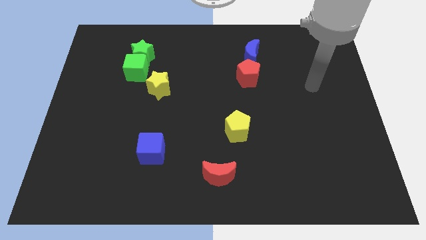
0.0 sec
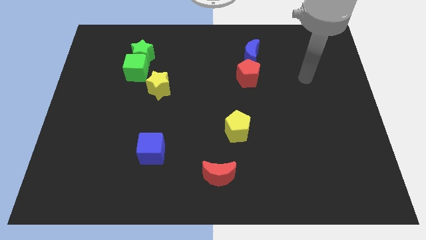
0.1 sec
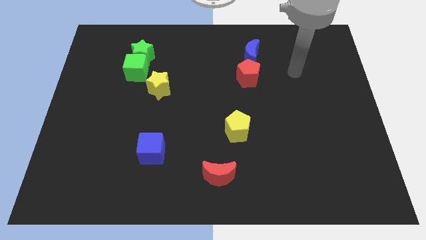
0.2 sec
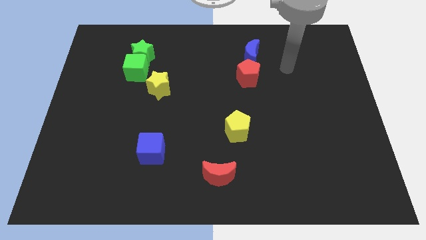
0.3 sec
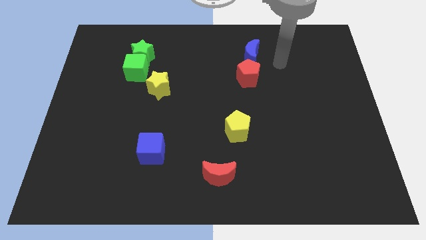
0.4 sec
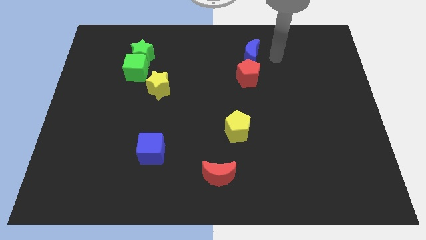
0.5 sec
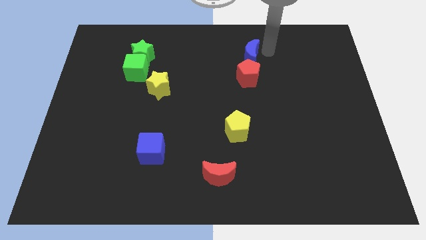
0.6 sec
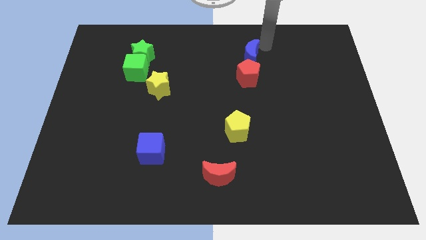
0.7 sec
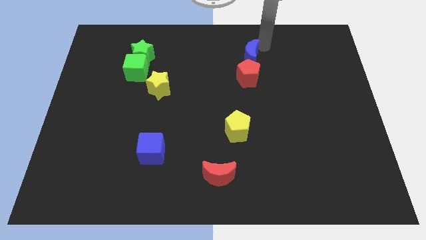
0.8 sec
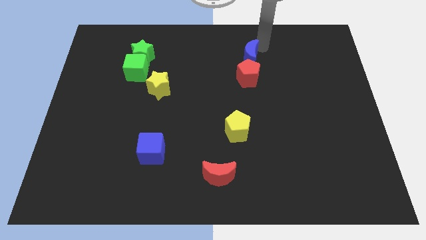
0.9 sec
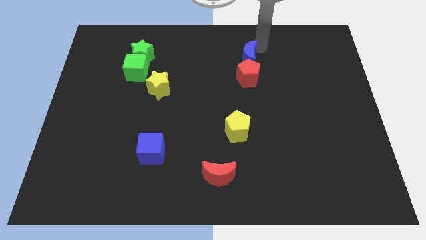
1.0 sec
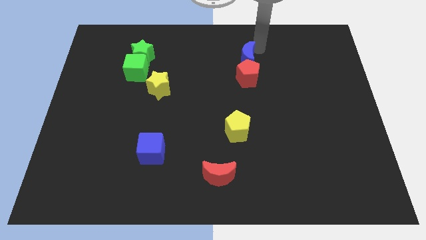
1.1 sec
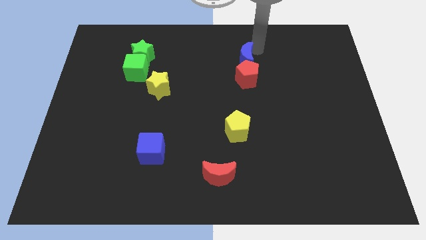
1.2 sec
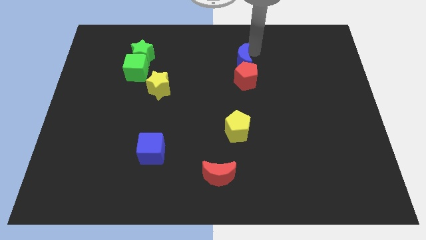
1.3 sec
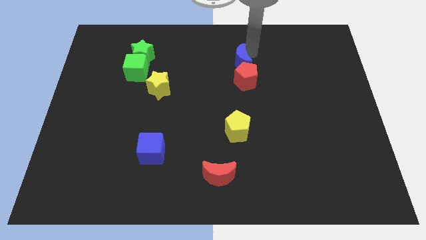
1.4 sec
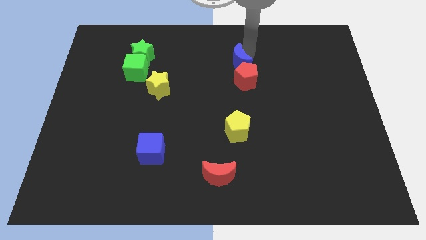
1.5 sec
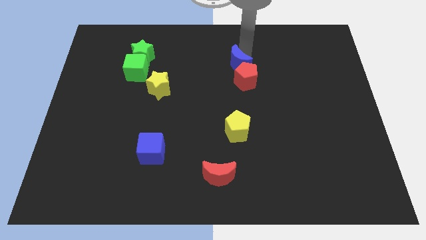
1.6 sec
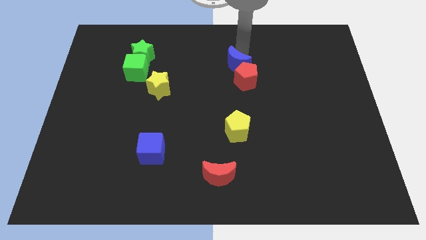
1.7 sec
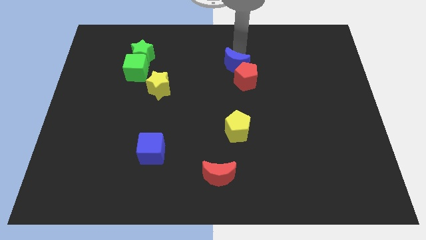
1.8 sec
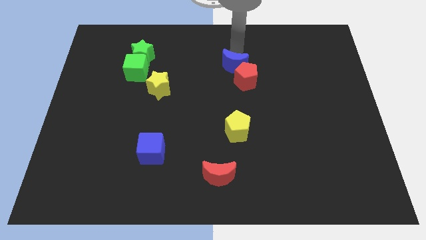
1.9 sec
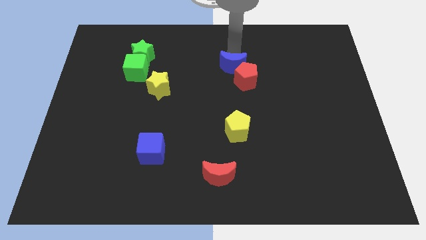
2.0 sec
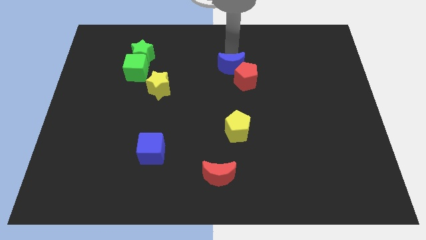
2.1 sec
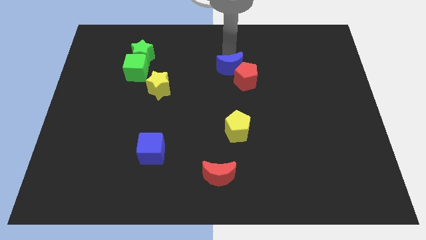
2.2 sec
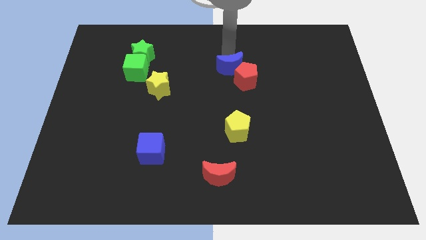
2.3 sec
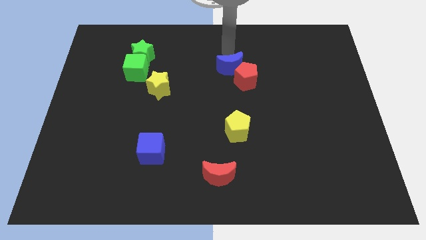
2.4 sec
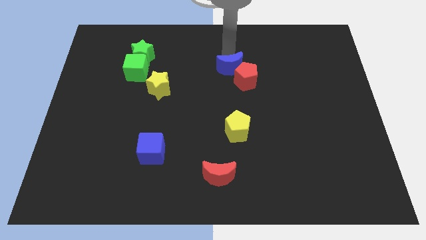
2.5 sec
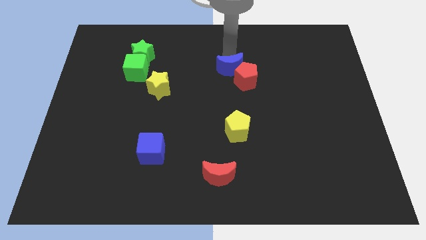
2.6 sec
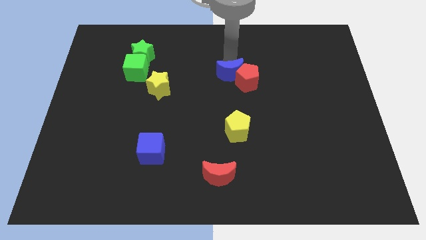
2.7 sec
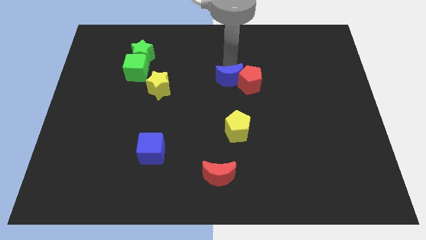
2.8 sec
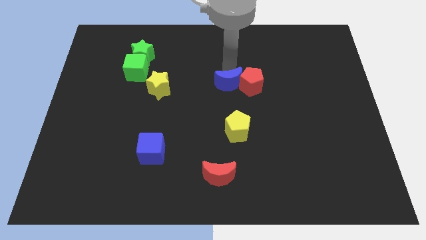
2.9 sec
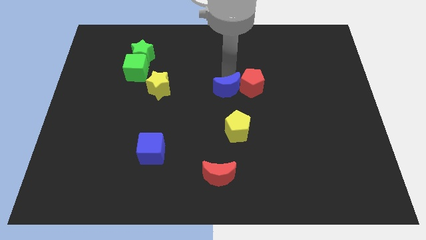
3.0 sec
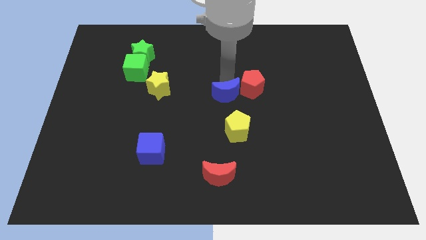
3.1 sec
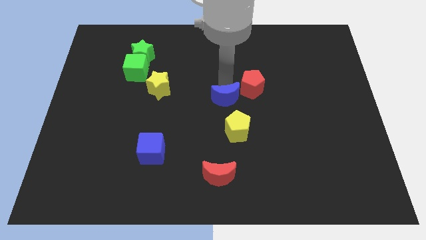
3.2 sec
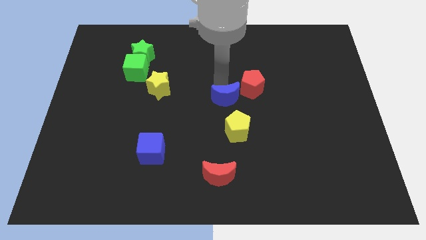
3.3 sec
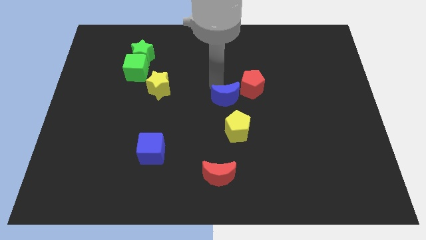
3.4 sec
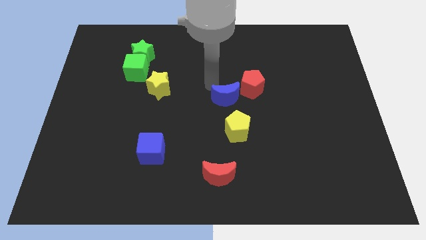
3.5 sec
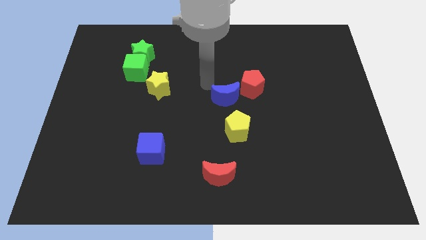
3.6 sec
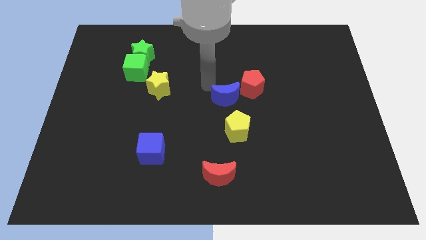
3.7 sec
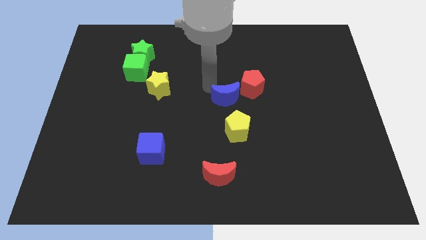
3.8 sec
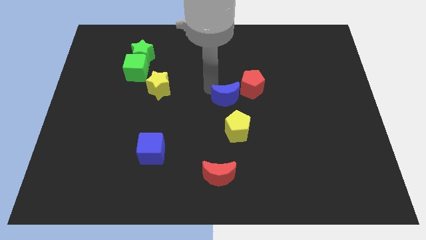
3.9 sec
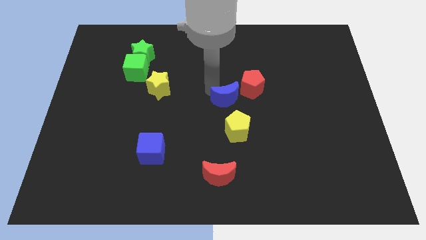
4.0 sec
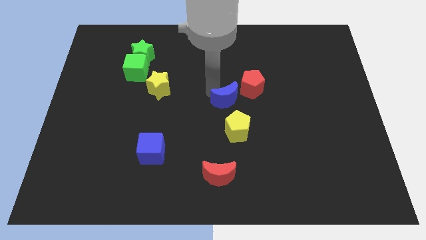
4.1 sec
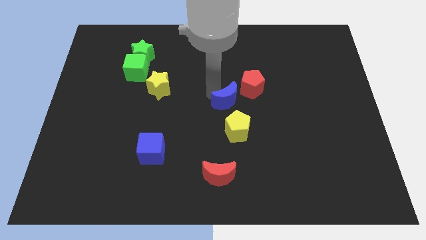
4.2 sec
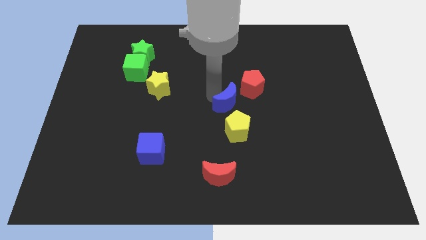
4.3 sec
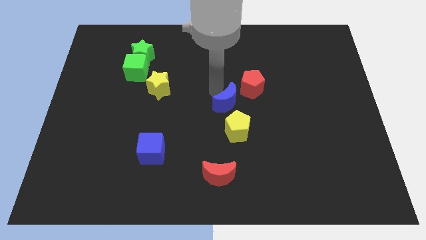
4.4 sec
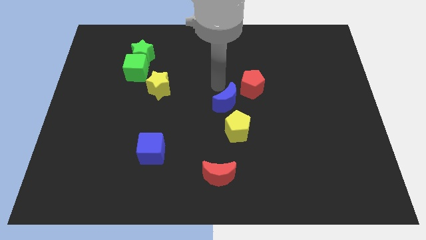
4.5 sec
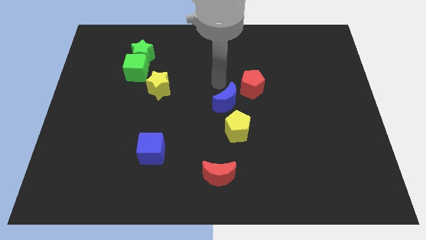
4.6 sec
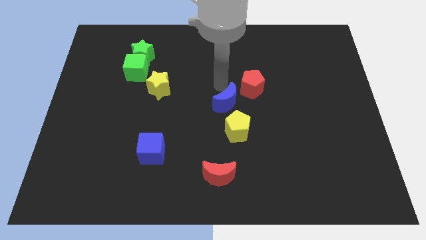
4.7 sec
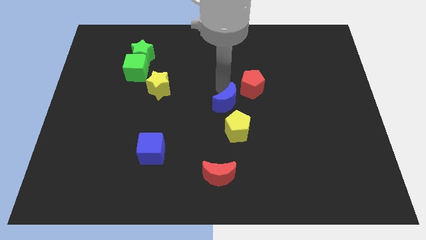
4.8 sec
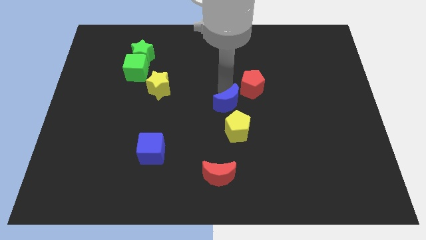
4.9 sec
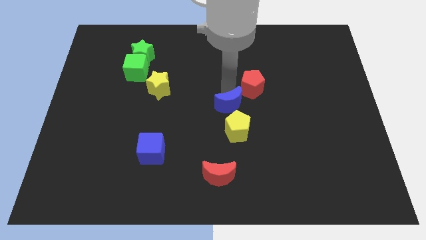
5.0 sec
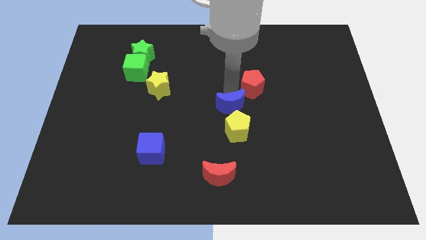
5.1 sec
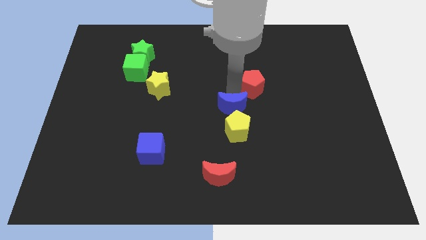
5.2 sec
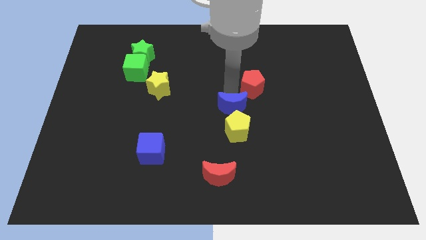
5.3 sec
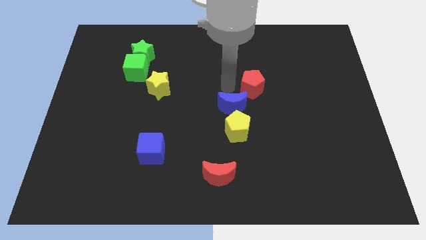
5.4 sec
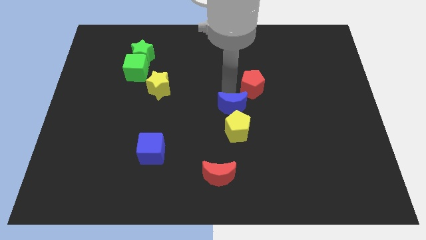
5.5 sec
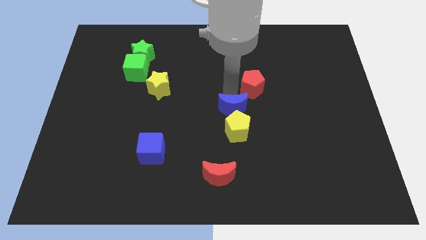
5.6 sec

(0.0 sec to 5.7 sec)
move the blue moon to the yellow pentagon

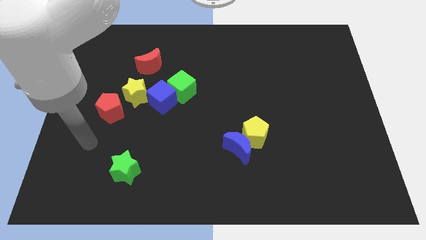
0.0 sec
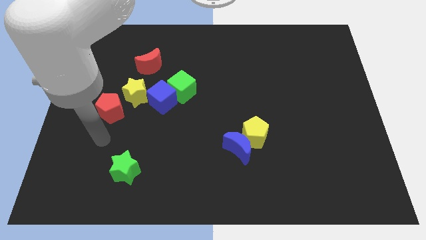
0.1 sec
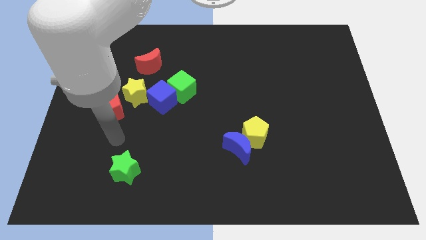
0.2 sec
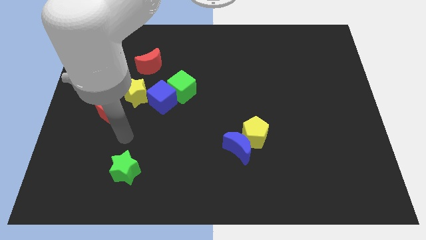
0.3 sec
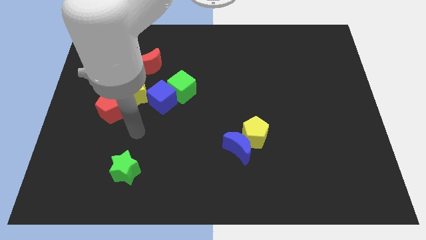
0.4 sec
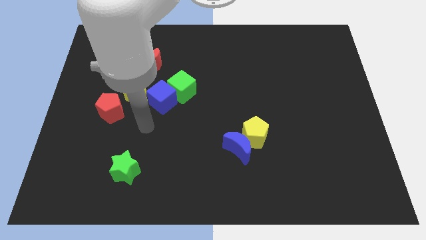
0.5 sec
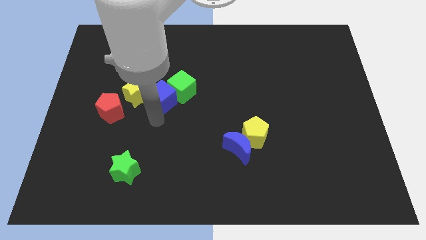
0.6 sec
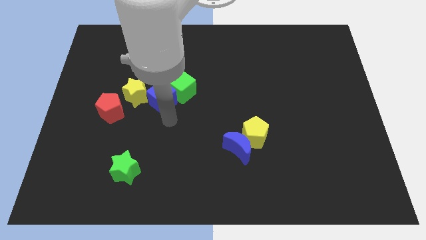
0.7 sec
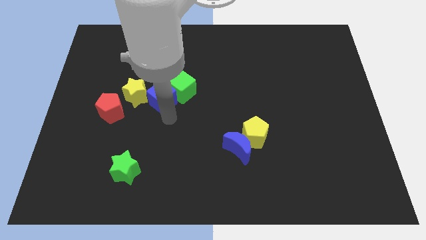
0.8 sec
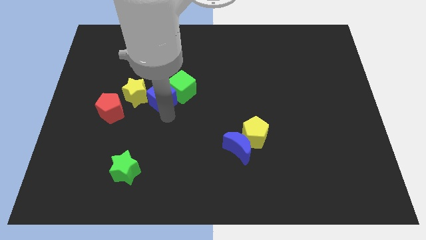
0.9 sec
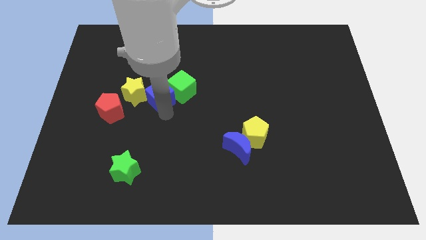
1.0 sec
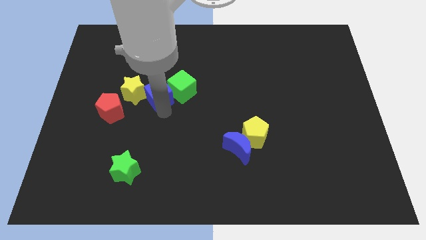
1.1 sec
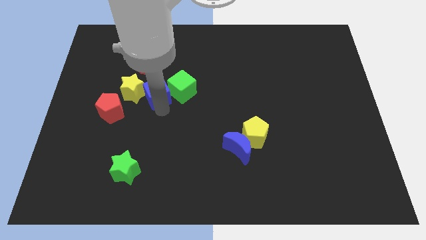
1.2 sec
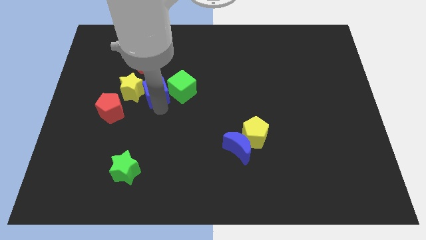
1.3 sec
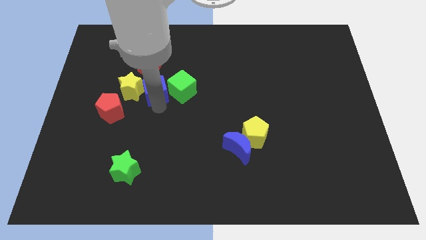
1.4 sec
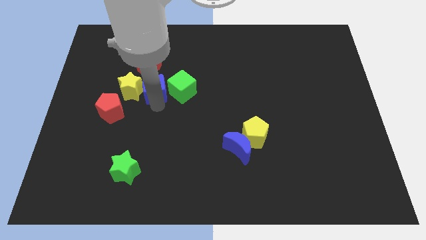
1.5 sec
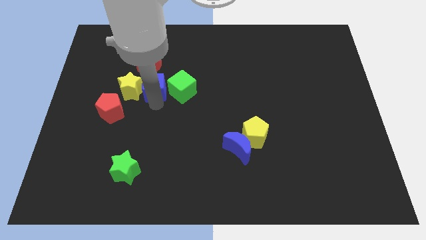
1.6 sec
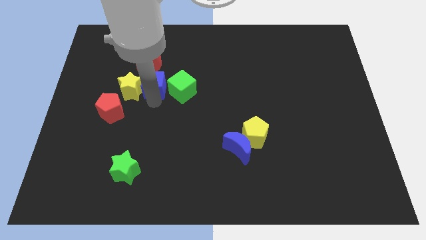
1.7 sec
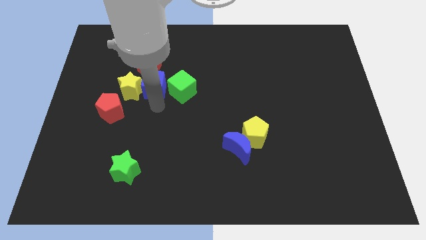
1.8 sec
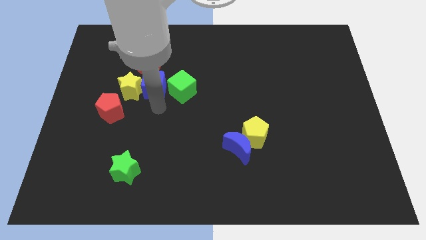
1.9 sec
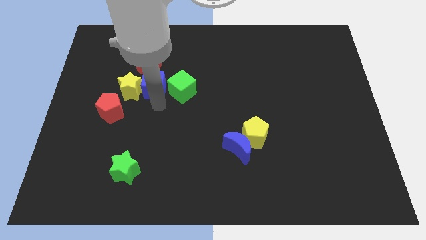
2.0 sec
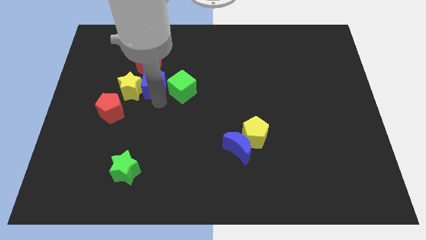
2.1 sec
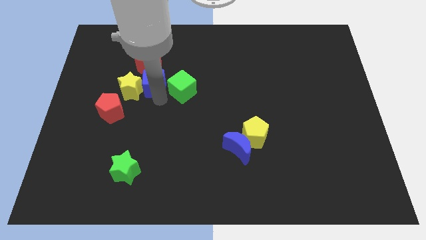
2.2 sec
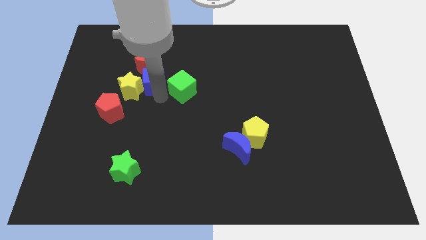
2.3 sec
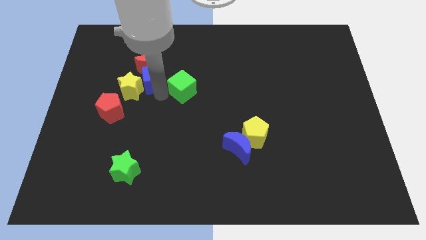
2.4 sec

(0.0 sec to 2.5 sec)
push the blue cube close to the red moon
